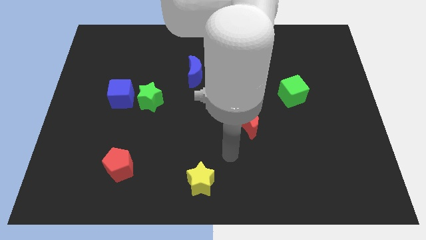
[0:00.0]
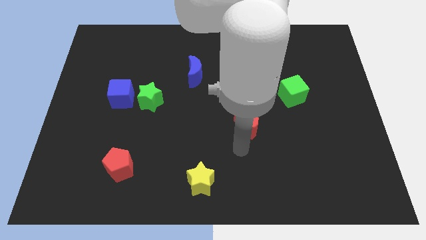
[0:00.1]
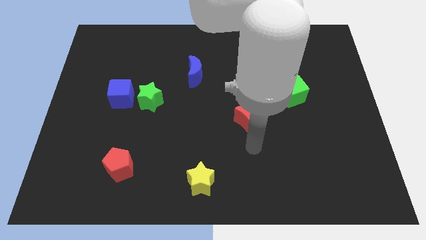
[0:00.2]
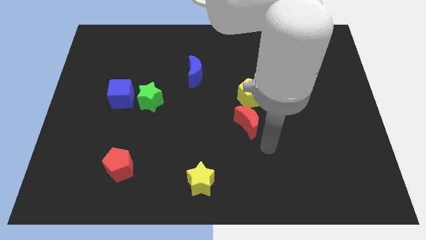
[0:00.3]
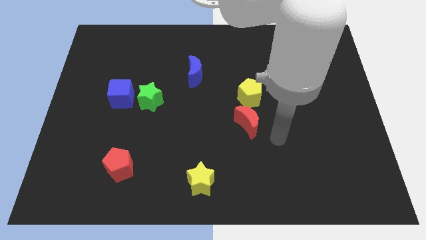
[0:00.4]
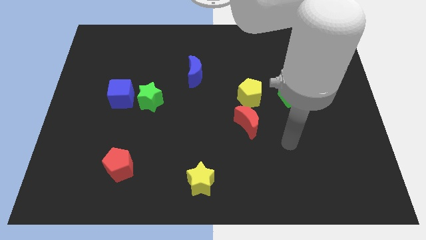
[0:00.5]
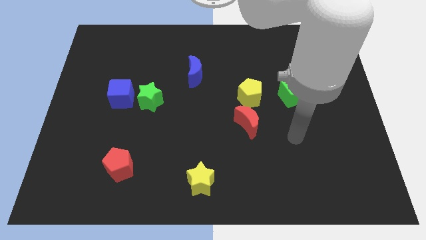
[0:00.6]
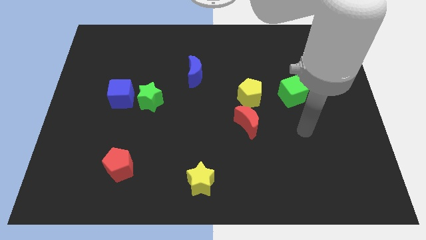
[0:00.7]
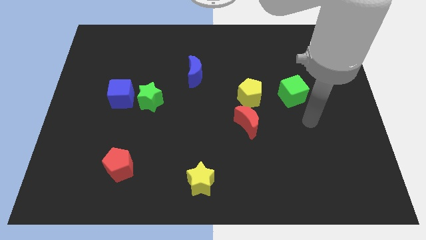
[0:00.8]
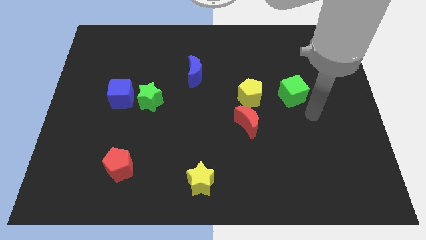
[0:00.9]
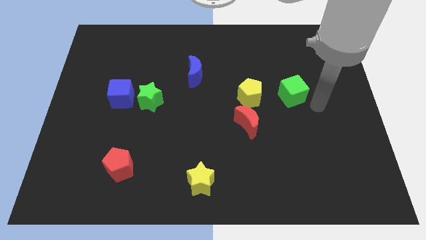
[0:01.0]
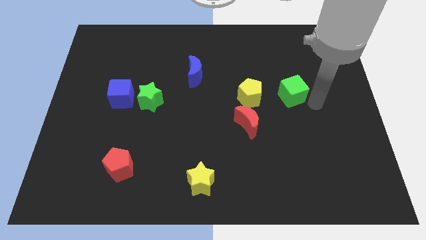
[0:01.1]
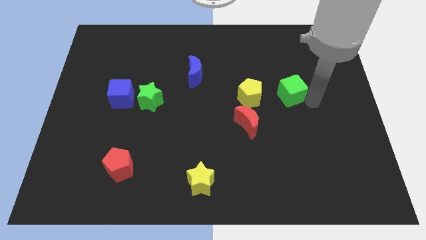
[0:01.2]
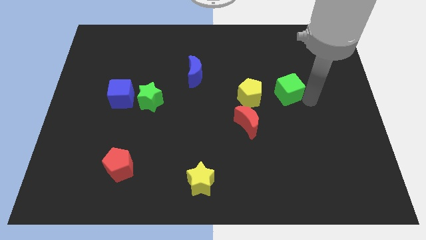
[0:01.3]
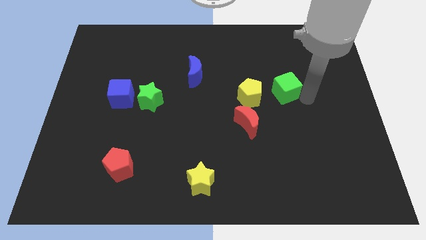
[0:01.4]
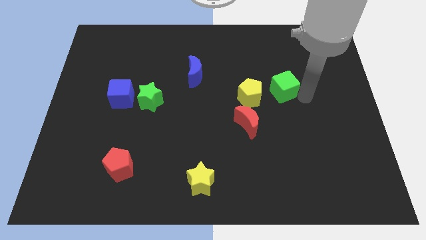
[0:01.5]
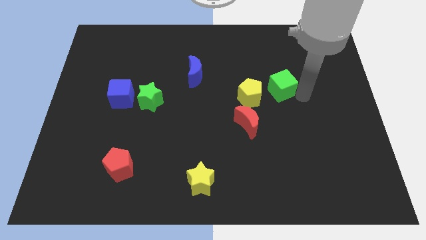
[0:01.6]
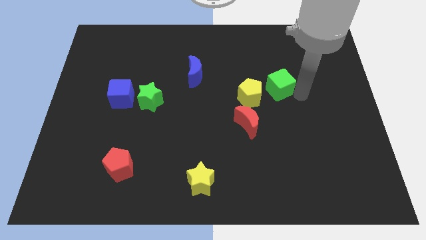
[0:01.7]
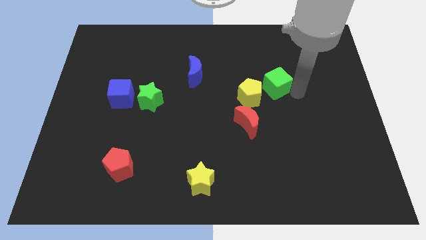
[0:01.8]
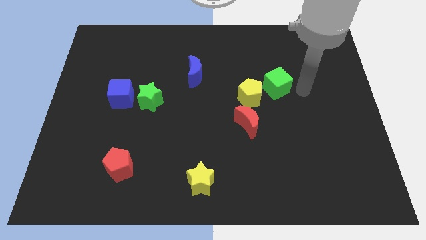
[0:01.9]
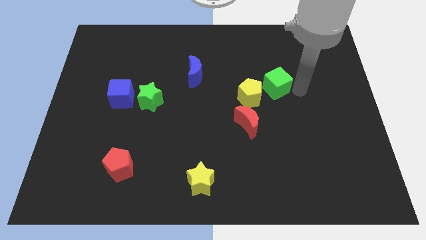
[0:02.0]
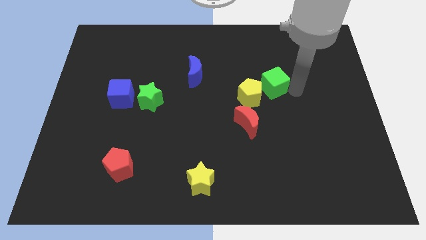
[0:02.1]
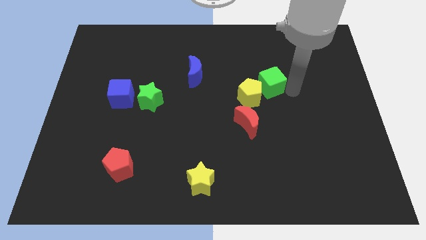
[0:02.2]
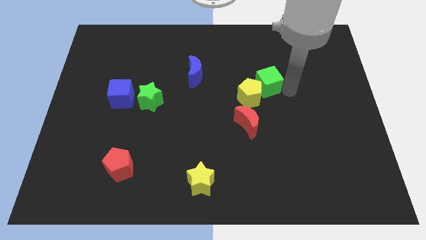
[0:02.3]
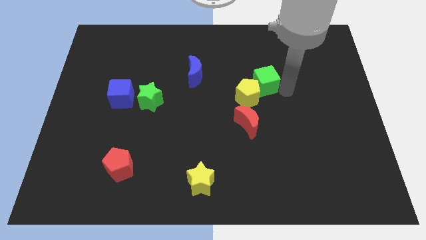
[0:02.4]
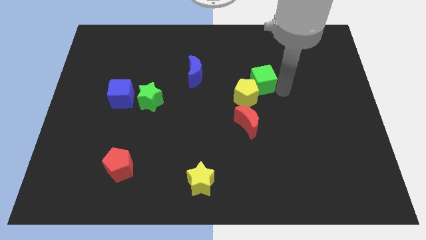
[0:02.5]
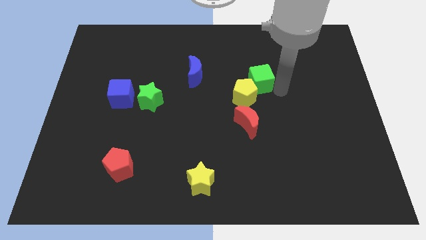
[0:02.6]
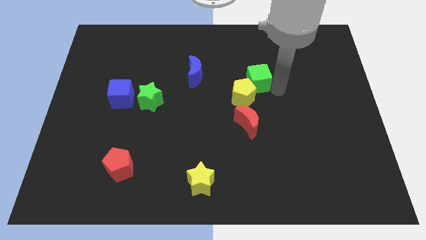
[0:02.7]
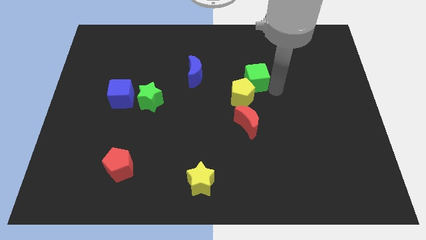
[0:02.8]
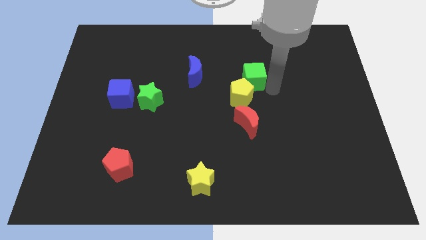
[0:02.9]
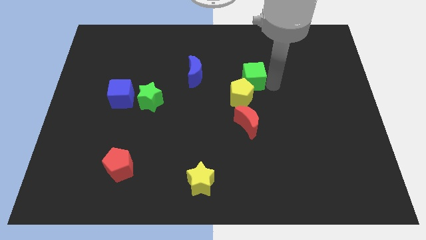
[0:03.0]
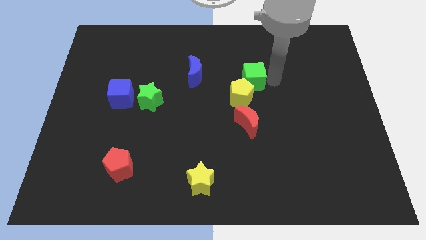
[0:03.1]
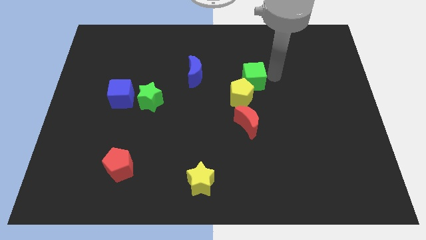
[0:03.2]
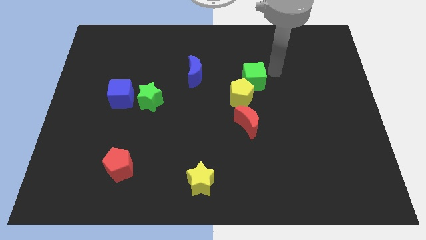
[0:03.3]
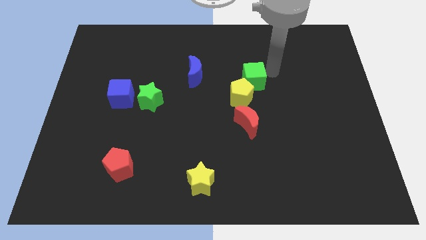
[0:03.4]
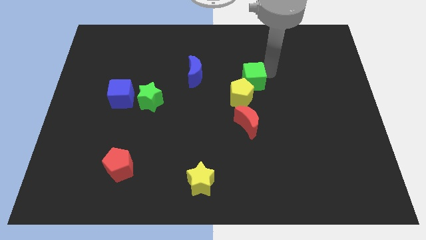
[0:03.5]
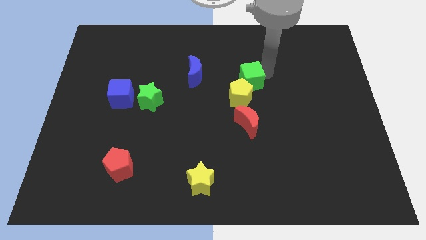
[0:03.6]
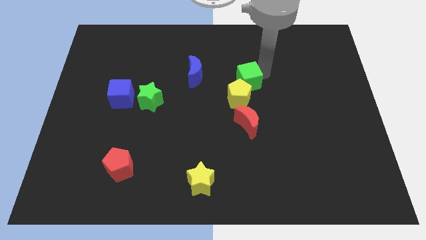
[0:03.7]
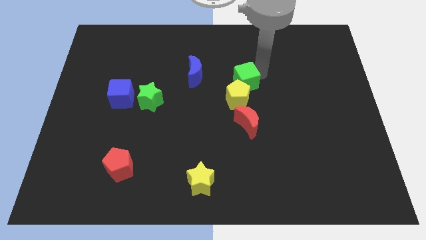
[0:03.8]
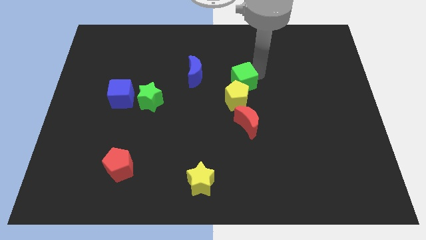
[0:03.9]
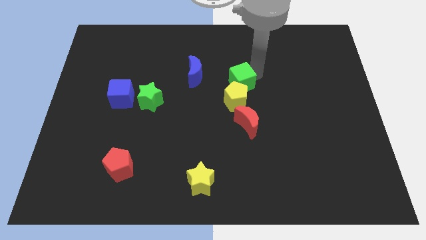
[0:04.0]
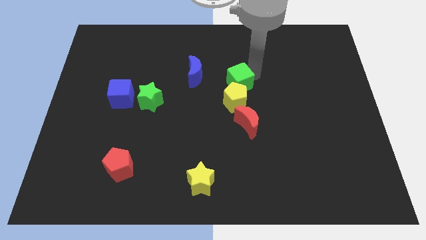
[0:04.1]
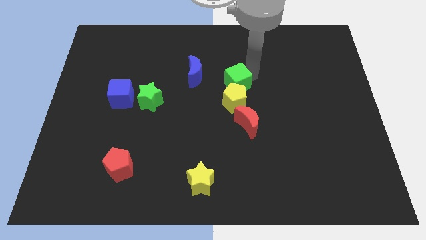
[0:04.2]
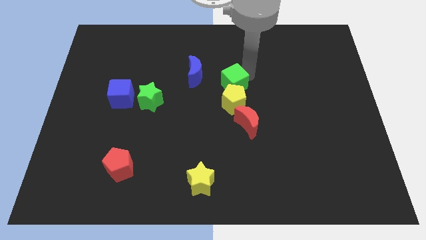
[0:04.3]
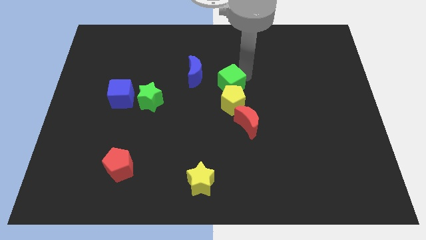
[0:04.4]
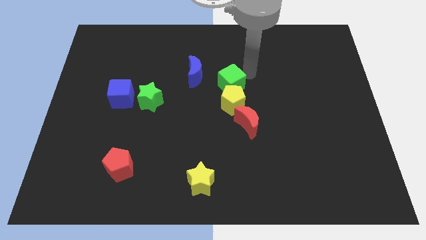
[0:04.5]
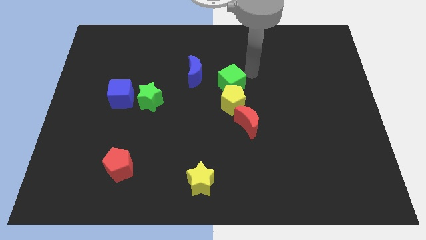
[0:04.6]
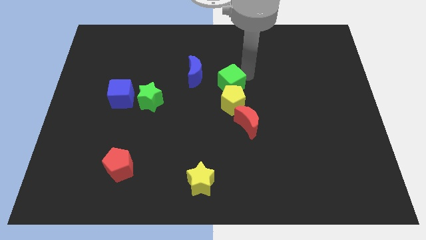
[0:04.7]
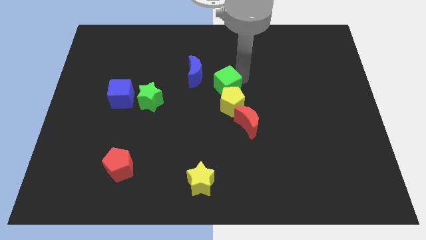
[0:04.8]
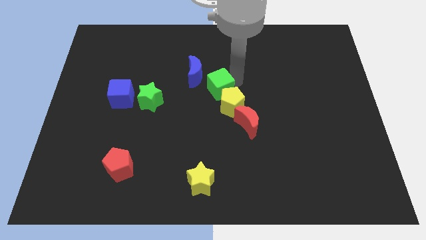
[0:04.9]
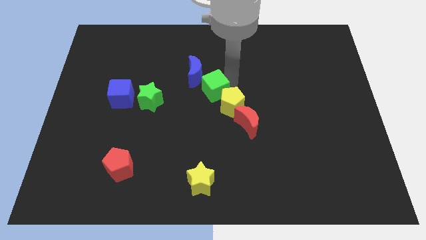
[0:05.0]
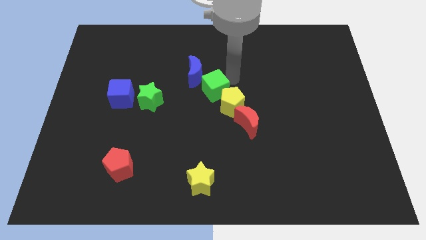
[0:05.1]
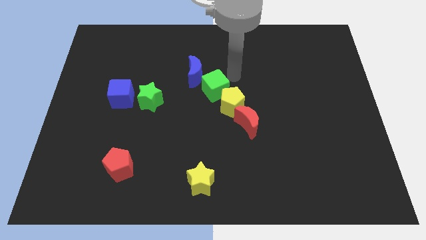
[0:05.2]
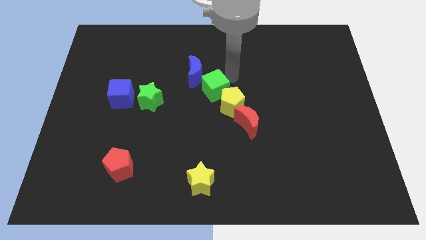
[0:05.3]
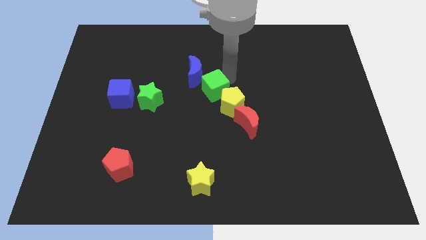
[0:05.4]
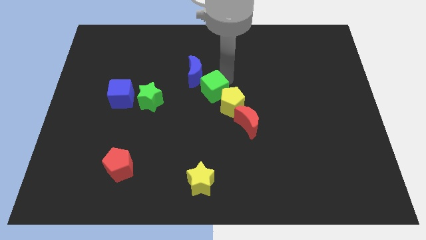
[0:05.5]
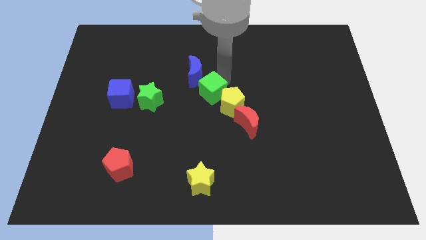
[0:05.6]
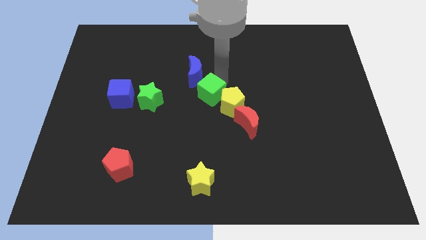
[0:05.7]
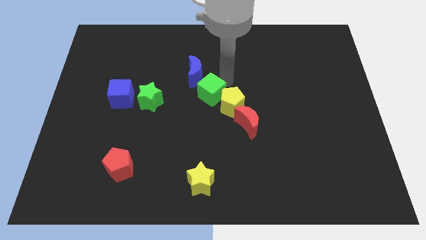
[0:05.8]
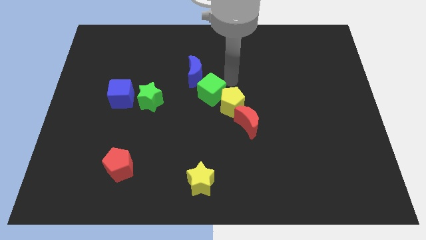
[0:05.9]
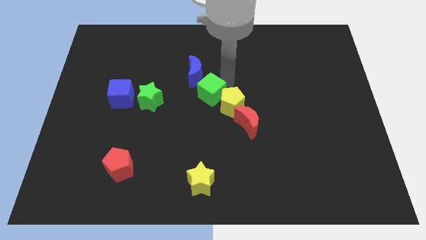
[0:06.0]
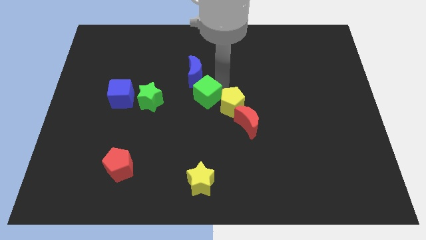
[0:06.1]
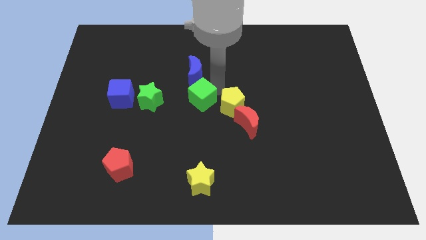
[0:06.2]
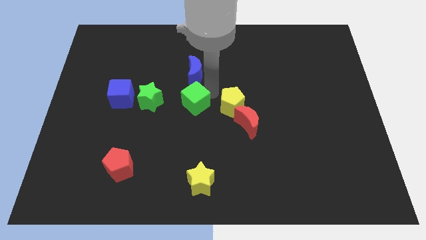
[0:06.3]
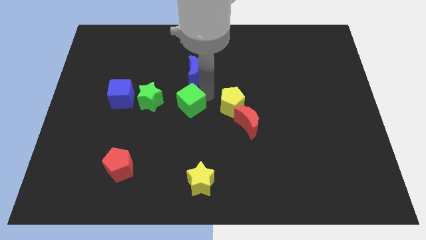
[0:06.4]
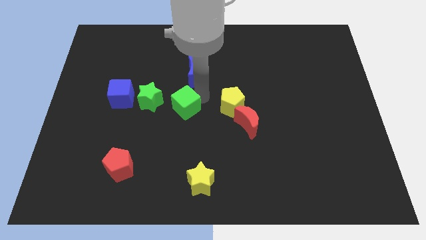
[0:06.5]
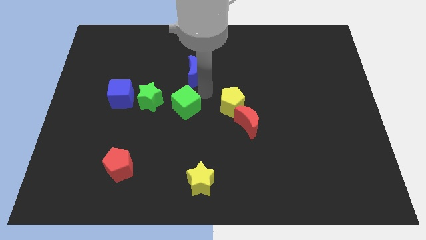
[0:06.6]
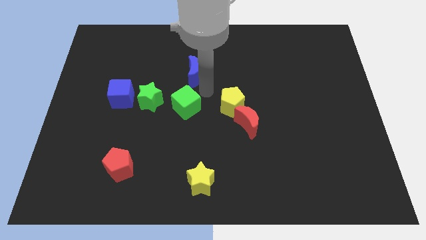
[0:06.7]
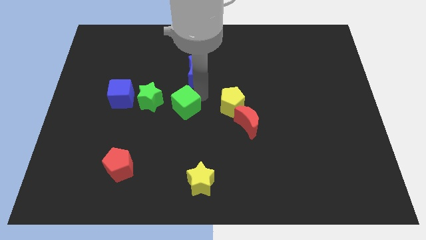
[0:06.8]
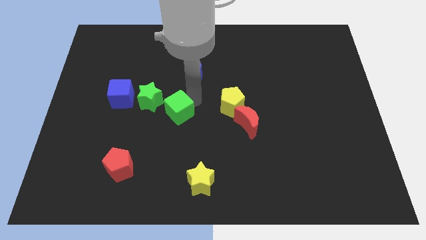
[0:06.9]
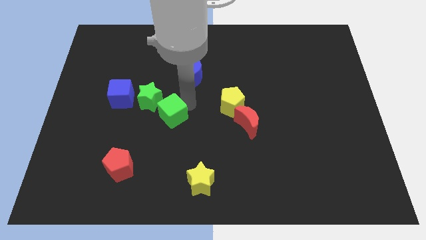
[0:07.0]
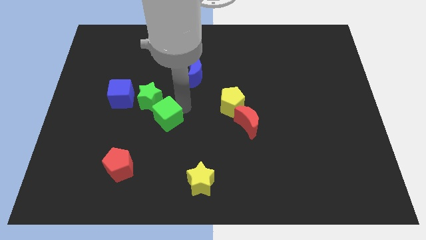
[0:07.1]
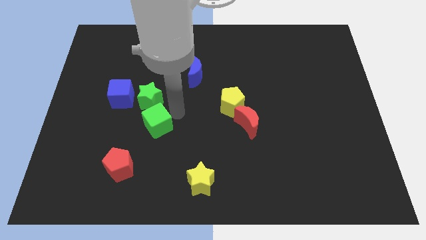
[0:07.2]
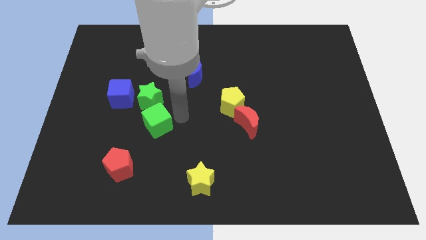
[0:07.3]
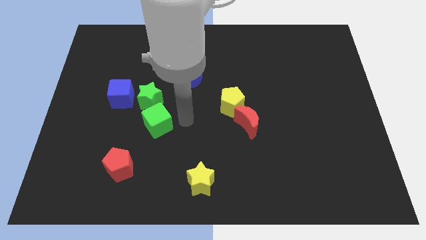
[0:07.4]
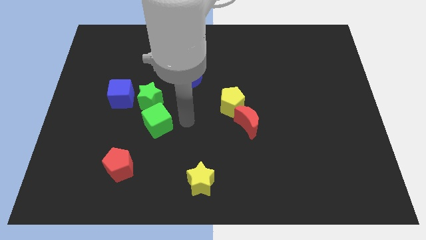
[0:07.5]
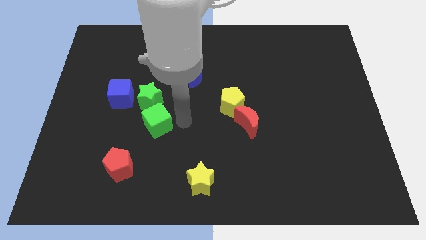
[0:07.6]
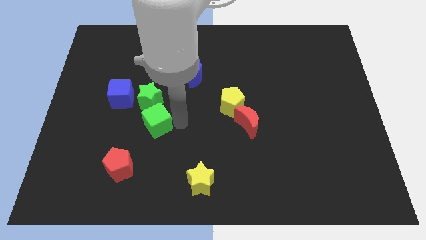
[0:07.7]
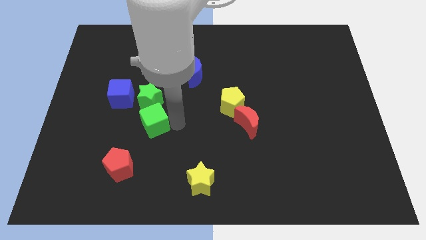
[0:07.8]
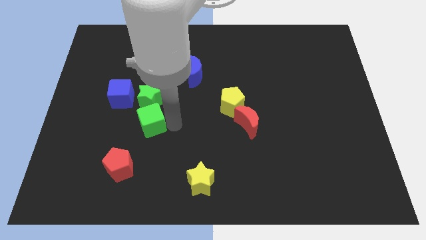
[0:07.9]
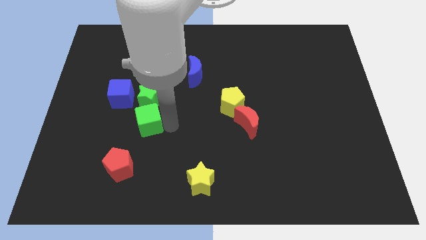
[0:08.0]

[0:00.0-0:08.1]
move the green cube above the red pentagon
